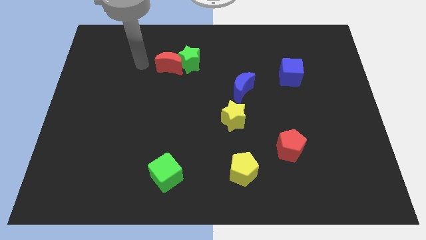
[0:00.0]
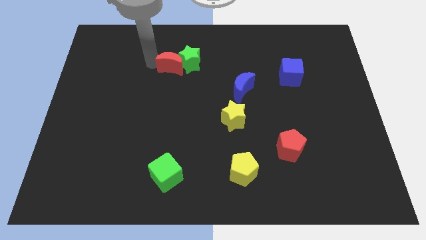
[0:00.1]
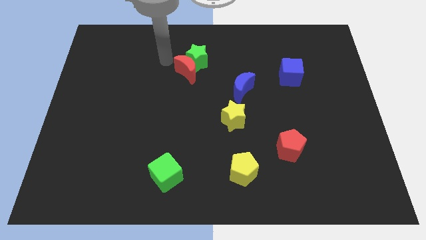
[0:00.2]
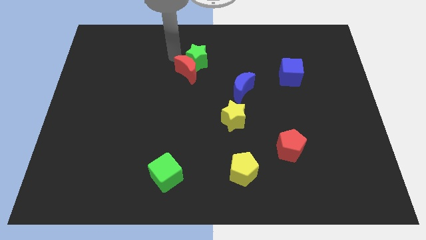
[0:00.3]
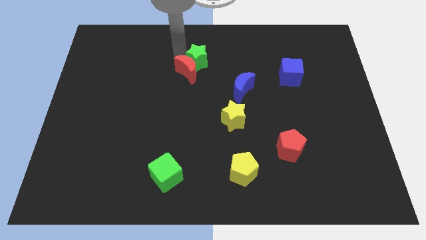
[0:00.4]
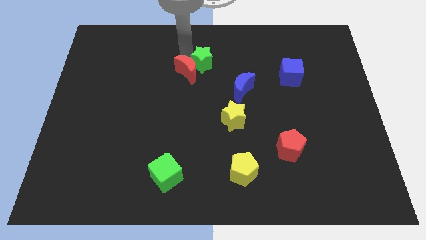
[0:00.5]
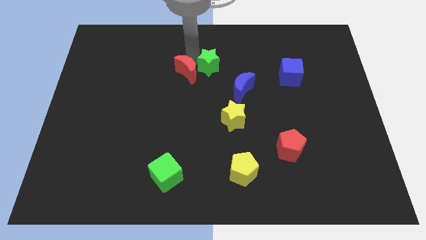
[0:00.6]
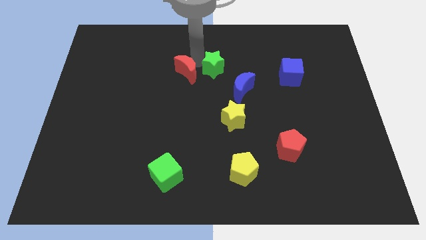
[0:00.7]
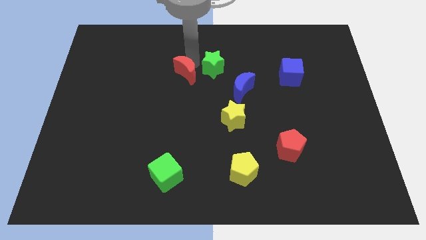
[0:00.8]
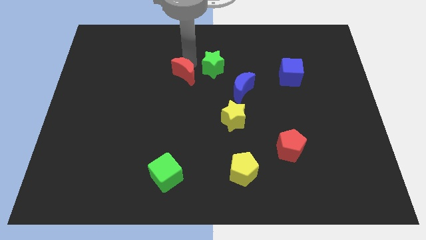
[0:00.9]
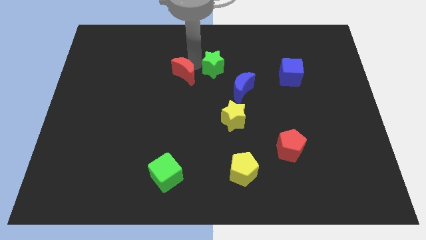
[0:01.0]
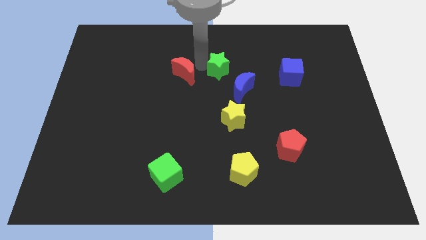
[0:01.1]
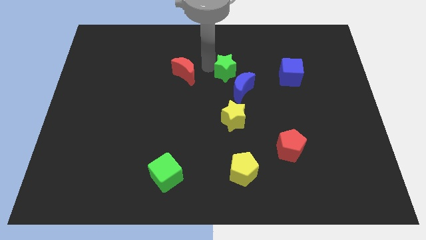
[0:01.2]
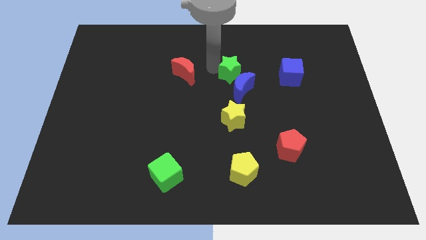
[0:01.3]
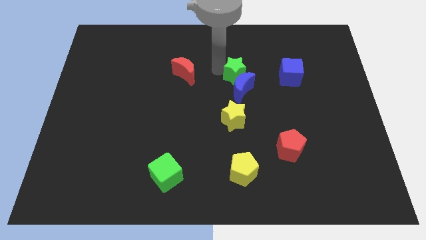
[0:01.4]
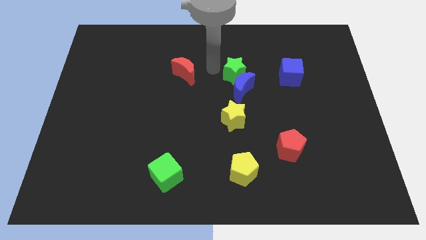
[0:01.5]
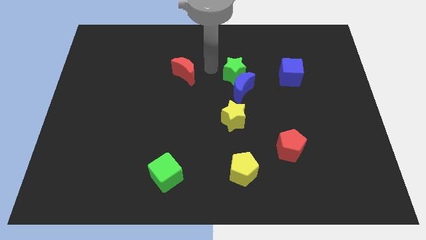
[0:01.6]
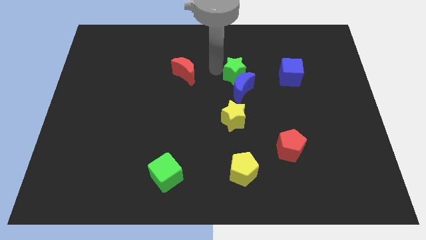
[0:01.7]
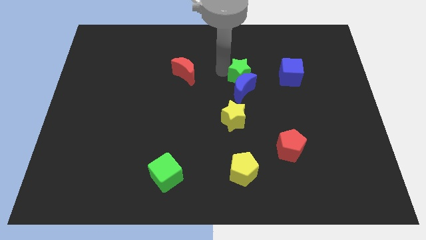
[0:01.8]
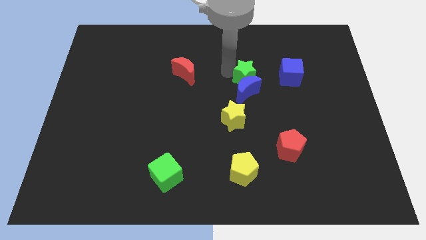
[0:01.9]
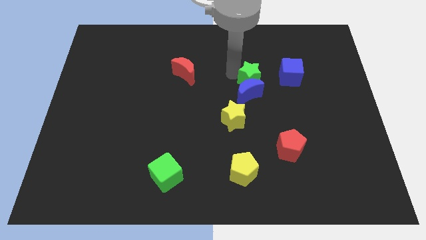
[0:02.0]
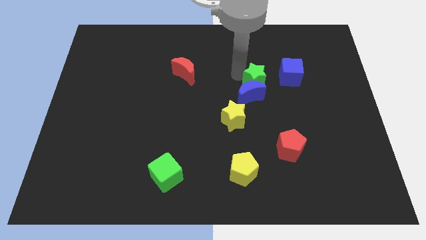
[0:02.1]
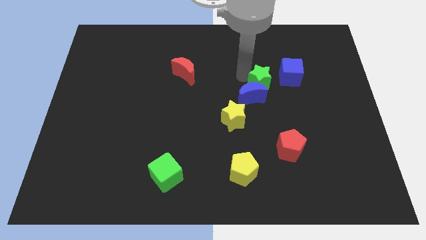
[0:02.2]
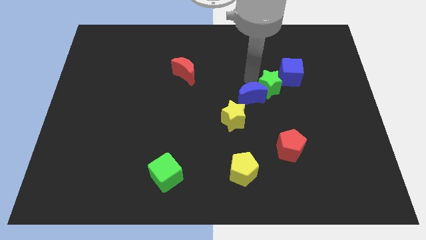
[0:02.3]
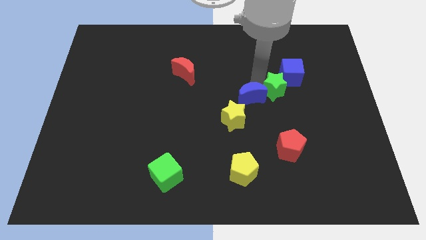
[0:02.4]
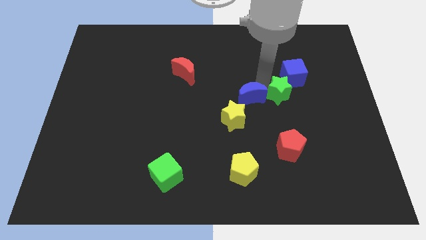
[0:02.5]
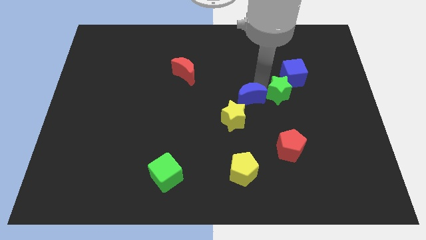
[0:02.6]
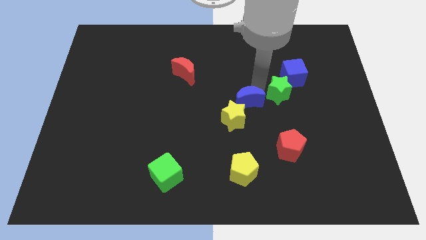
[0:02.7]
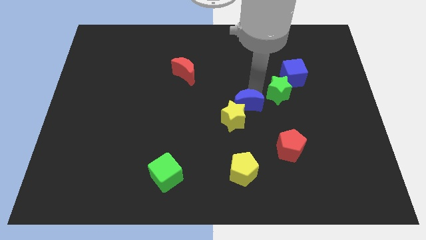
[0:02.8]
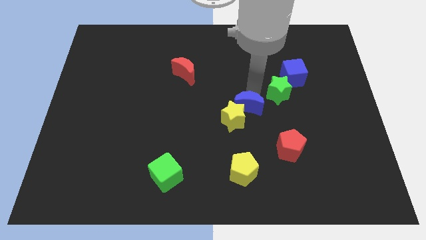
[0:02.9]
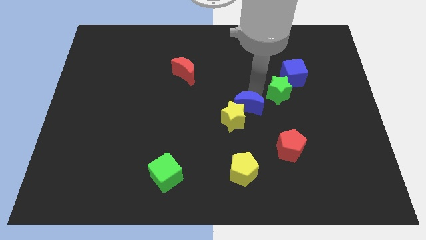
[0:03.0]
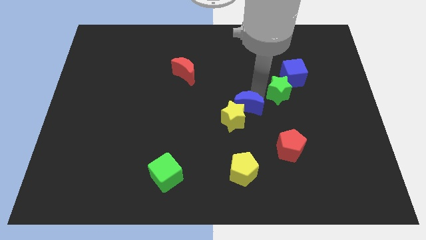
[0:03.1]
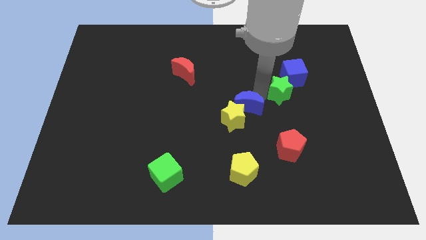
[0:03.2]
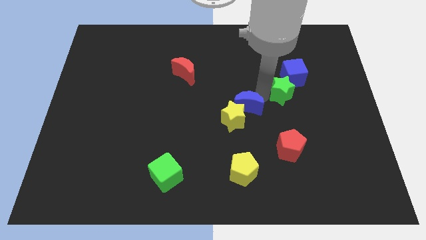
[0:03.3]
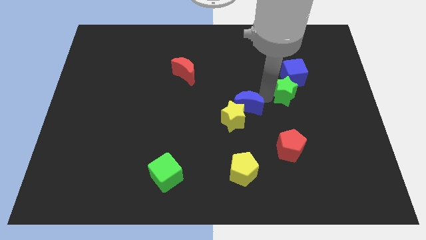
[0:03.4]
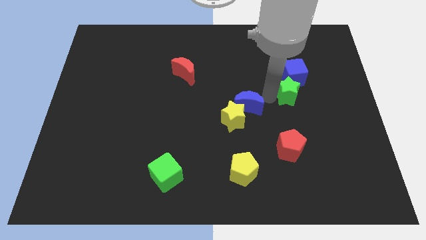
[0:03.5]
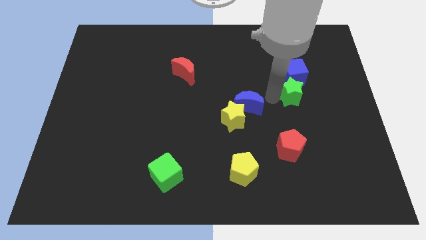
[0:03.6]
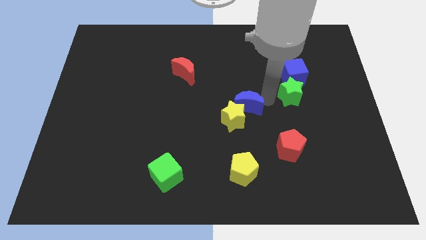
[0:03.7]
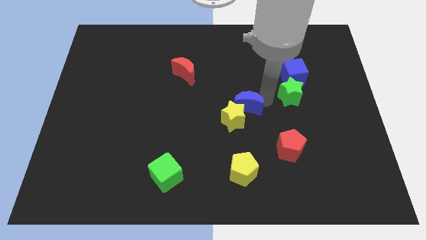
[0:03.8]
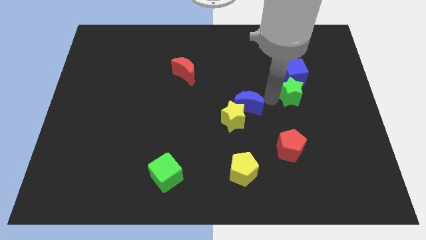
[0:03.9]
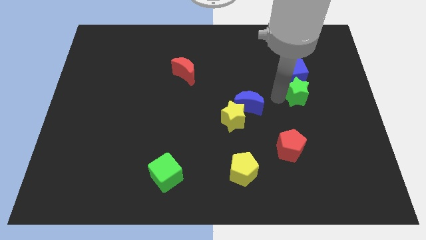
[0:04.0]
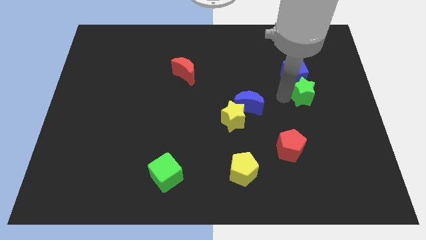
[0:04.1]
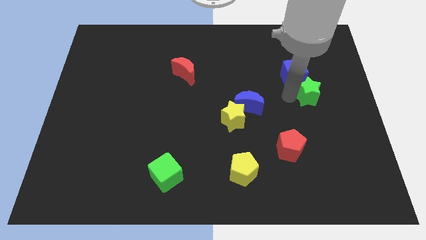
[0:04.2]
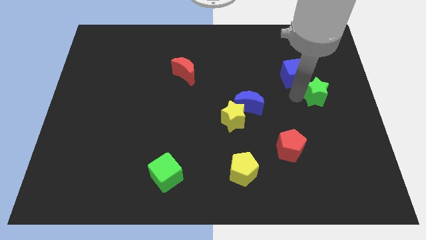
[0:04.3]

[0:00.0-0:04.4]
move the green star to the right side of the board

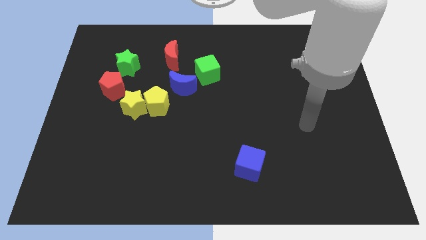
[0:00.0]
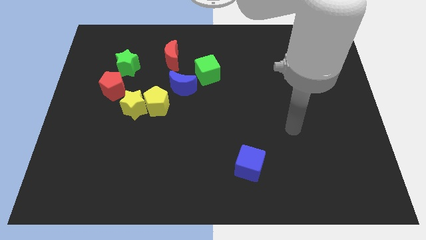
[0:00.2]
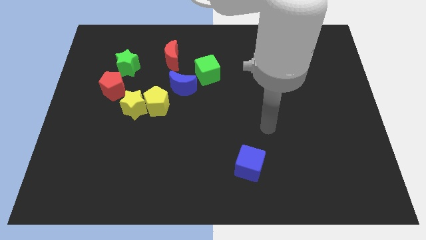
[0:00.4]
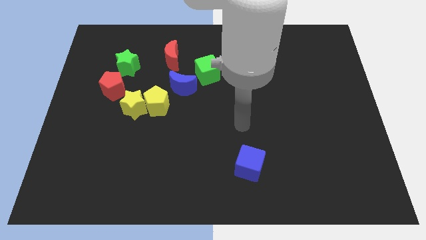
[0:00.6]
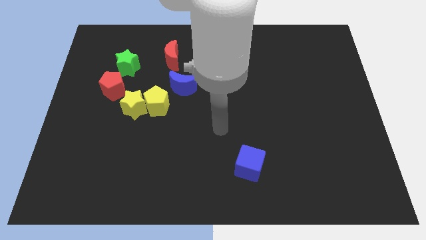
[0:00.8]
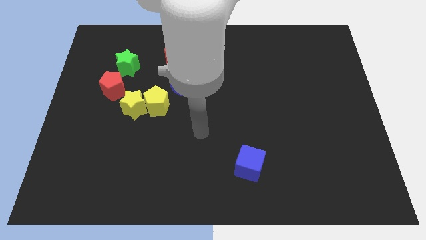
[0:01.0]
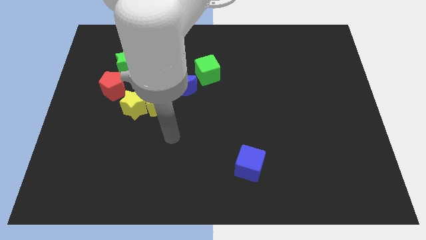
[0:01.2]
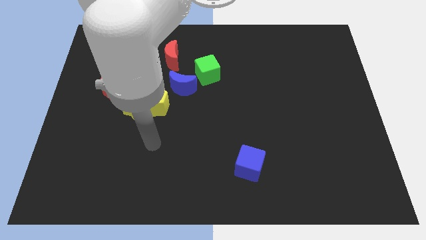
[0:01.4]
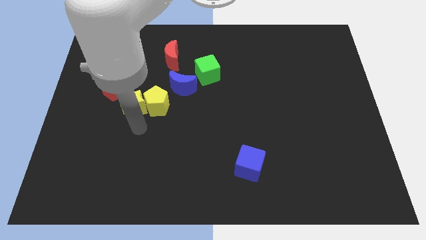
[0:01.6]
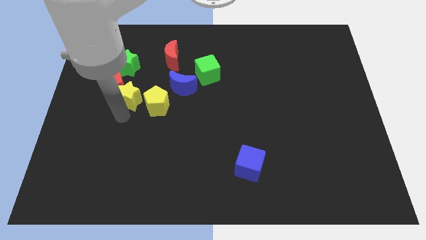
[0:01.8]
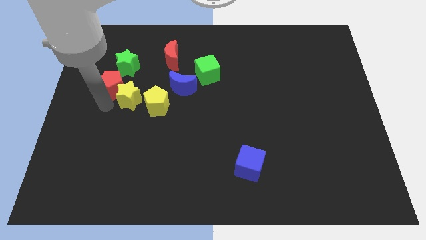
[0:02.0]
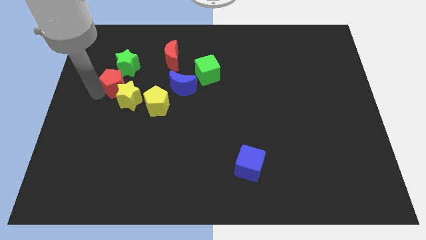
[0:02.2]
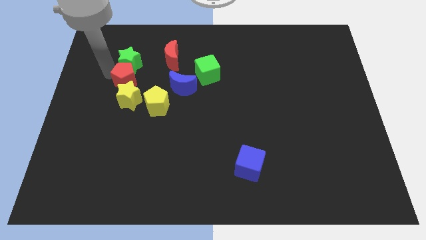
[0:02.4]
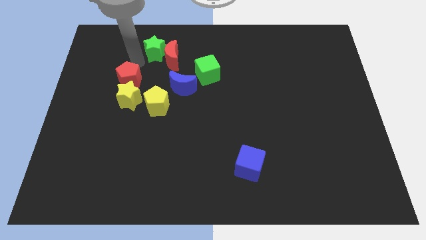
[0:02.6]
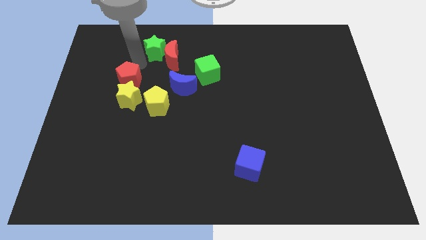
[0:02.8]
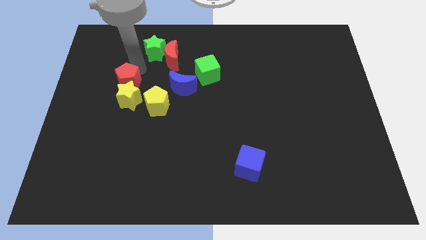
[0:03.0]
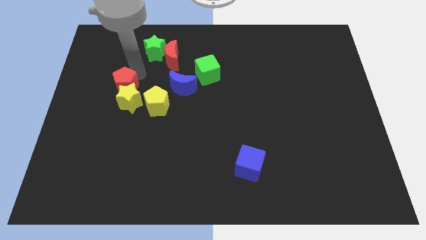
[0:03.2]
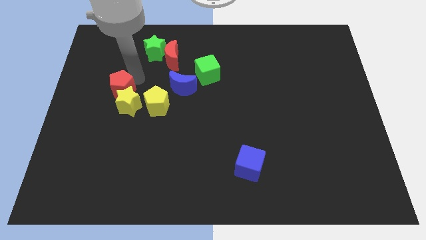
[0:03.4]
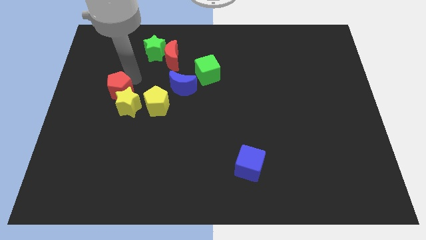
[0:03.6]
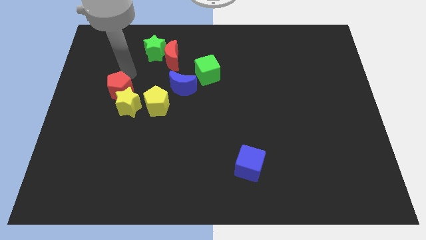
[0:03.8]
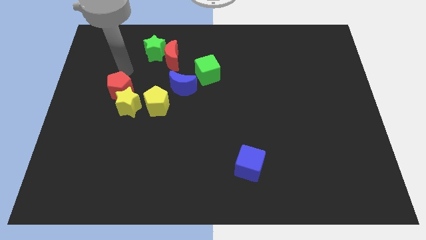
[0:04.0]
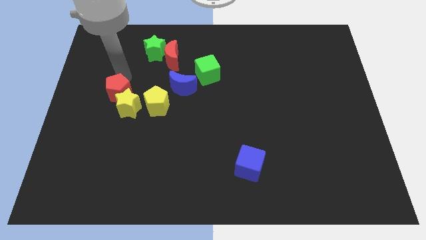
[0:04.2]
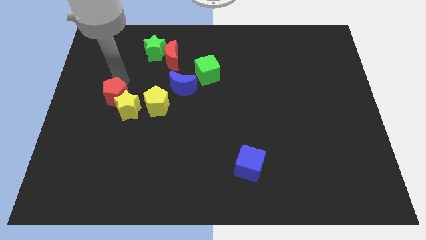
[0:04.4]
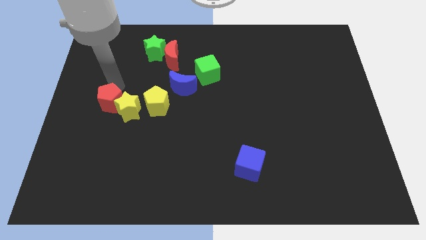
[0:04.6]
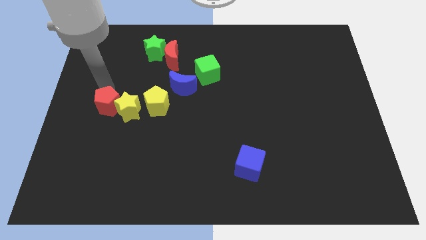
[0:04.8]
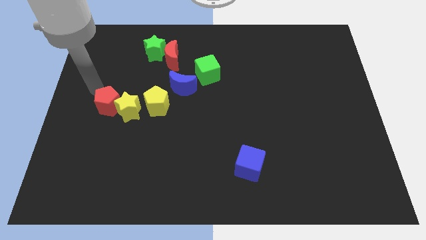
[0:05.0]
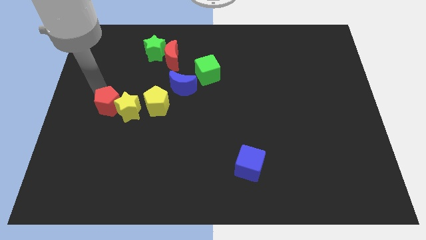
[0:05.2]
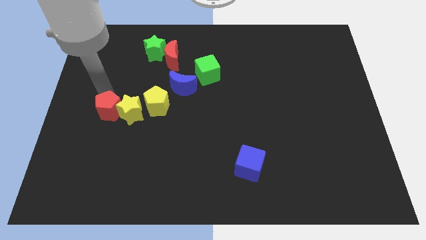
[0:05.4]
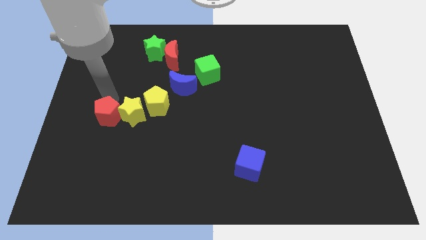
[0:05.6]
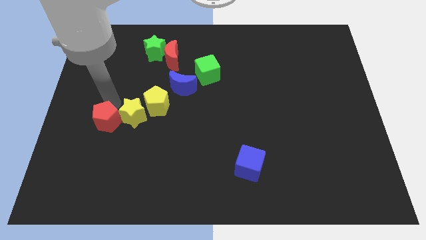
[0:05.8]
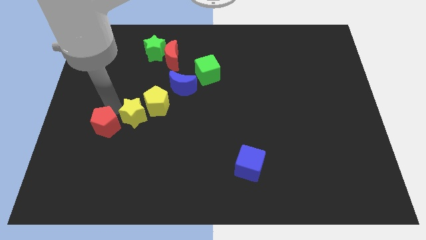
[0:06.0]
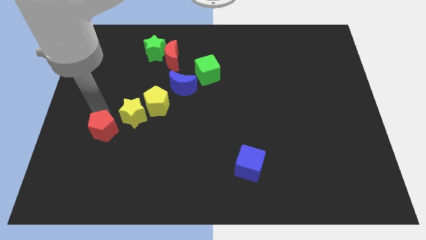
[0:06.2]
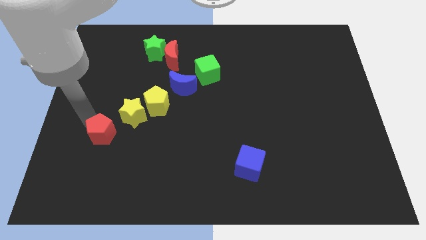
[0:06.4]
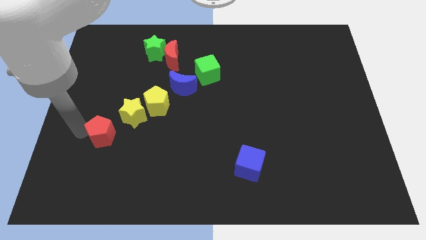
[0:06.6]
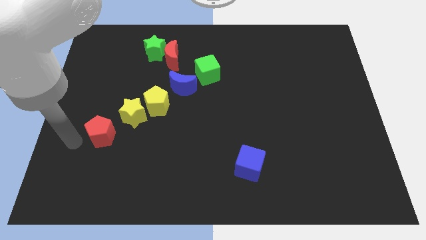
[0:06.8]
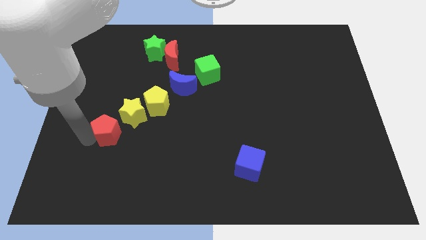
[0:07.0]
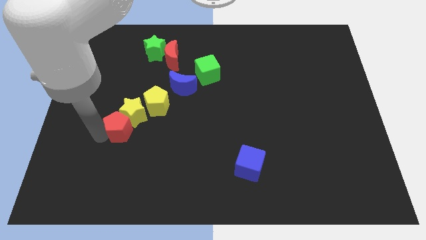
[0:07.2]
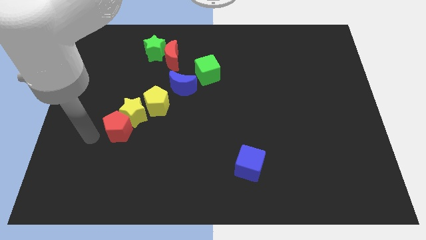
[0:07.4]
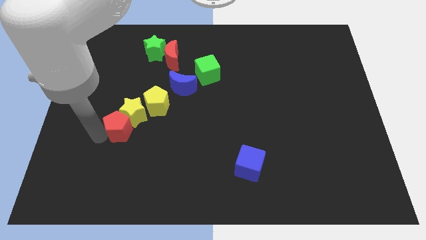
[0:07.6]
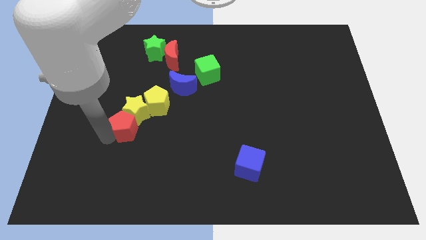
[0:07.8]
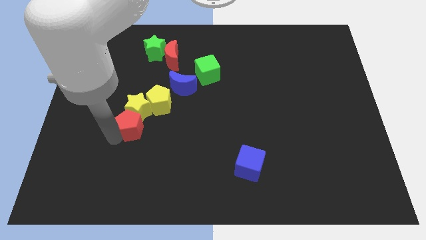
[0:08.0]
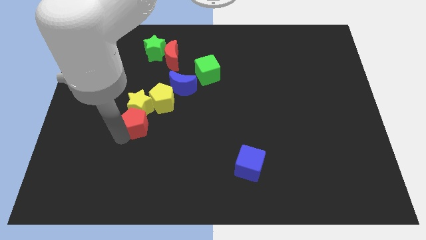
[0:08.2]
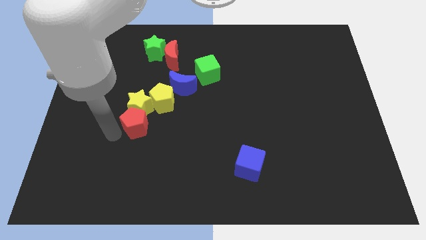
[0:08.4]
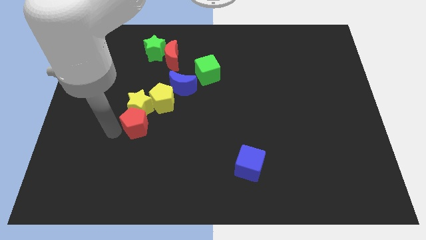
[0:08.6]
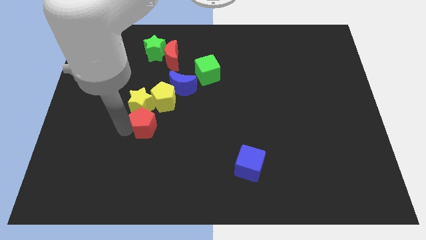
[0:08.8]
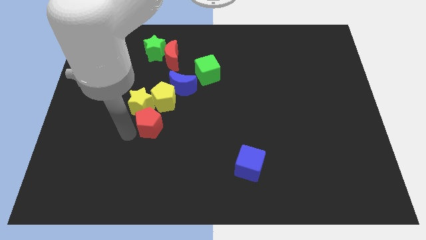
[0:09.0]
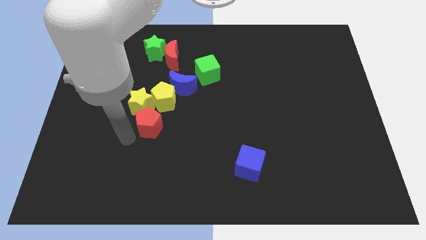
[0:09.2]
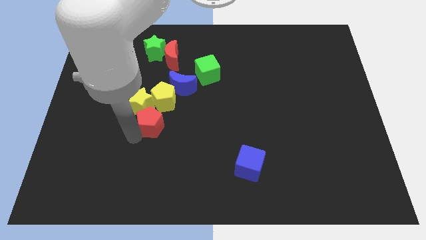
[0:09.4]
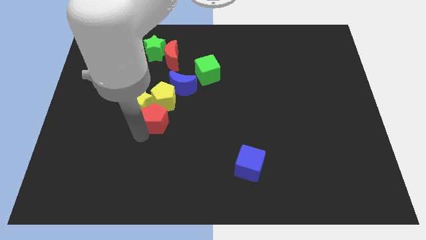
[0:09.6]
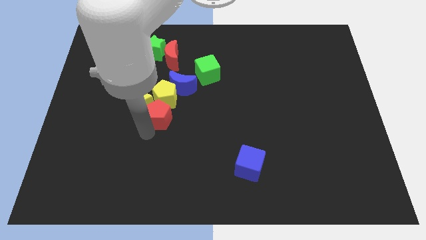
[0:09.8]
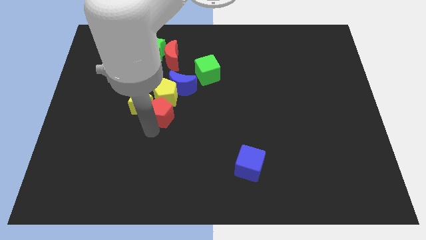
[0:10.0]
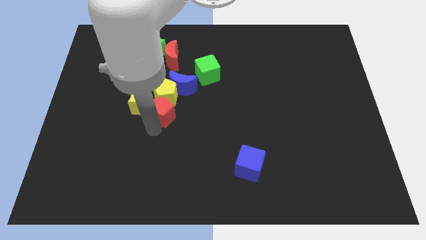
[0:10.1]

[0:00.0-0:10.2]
move the red pentagon to the center of the board
